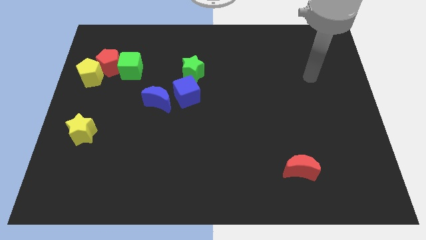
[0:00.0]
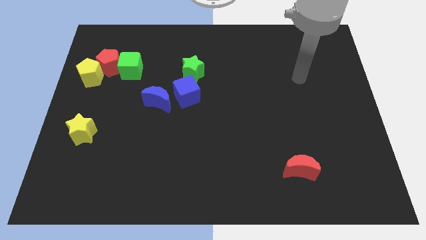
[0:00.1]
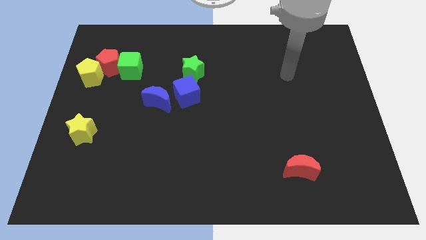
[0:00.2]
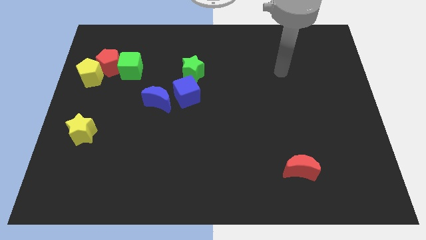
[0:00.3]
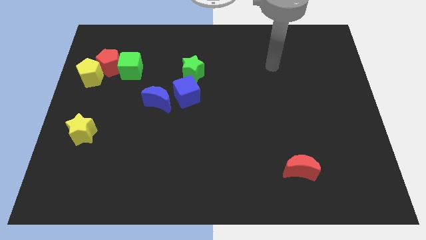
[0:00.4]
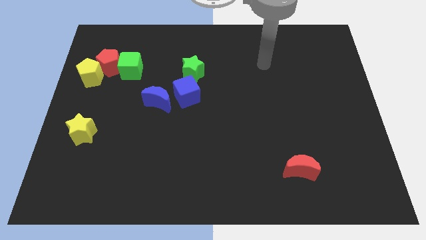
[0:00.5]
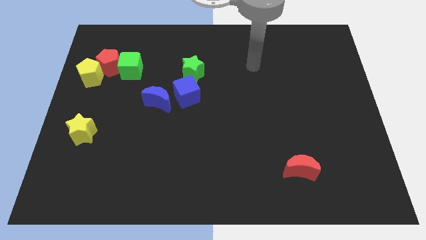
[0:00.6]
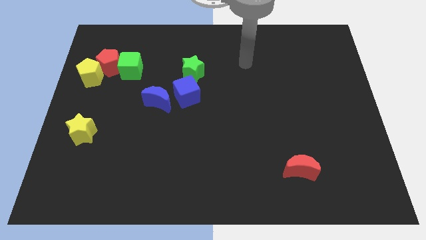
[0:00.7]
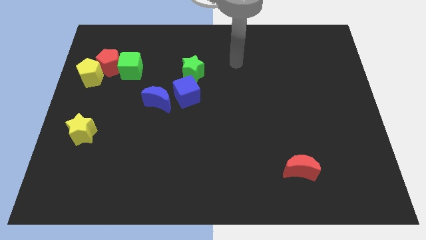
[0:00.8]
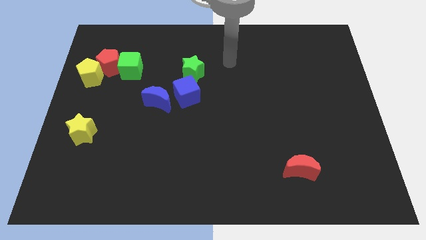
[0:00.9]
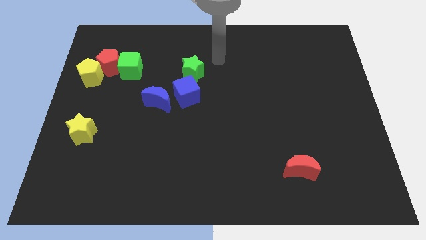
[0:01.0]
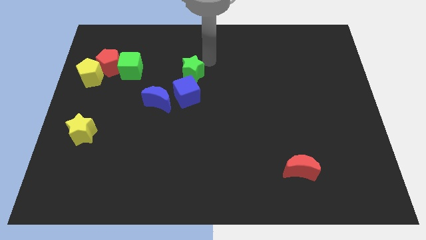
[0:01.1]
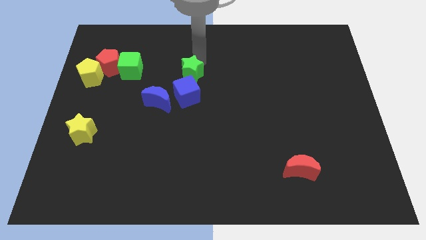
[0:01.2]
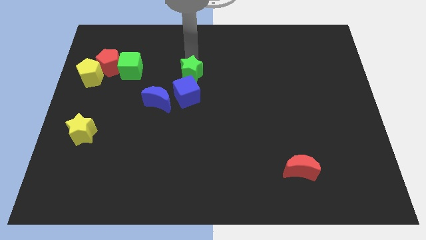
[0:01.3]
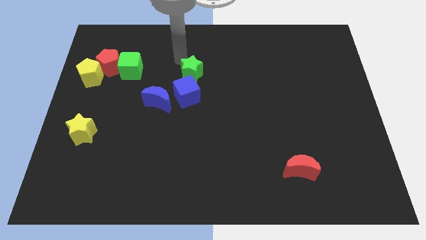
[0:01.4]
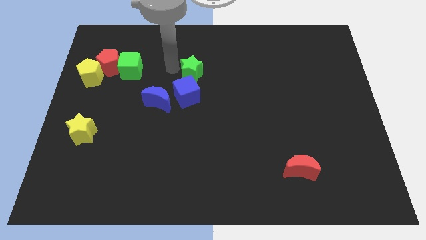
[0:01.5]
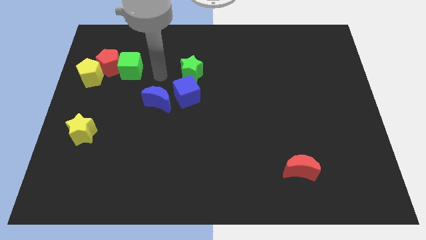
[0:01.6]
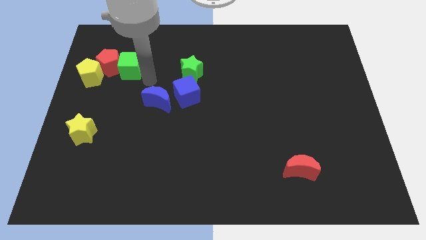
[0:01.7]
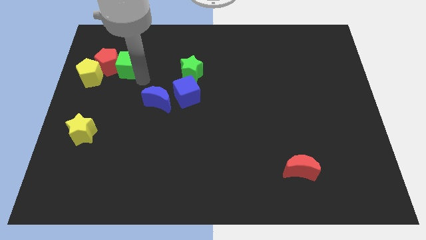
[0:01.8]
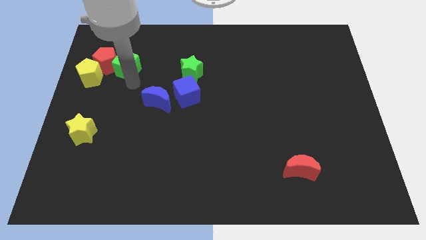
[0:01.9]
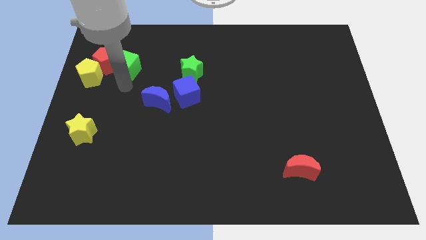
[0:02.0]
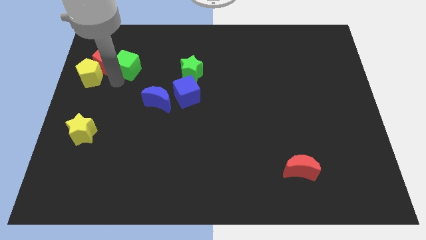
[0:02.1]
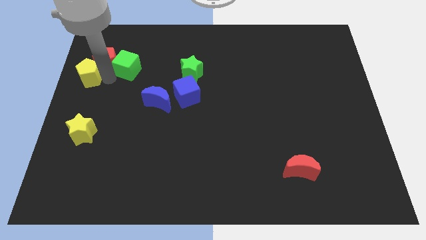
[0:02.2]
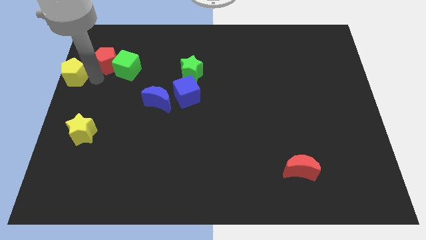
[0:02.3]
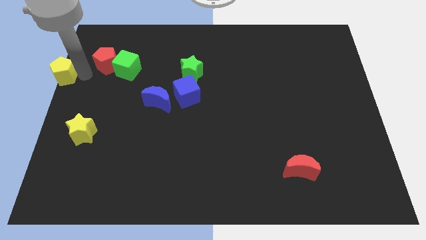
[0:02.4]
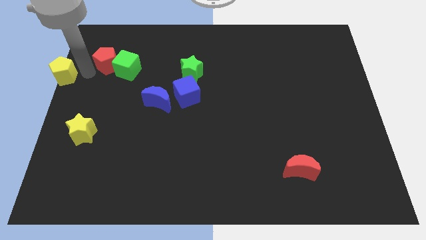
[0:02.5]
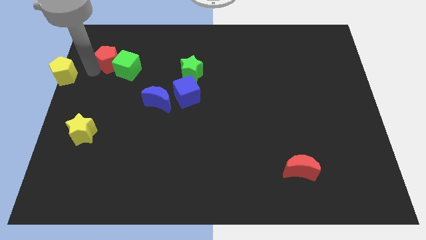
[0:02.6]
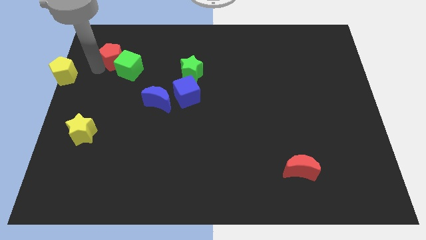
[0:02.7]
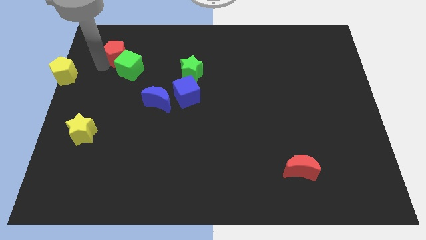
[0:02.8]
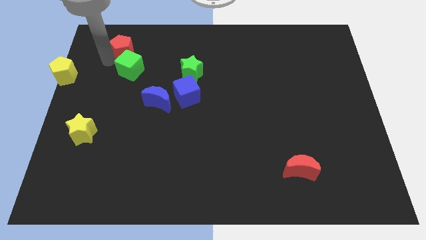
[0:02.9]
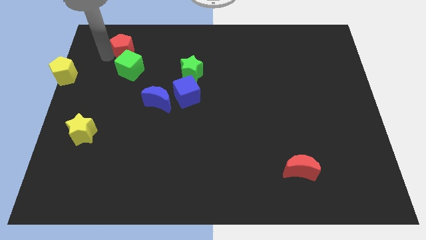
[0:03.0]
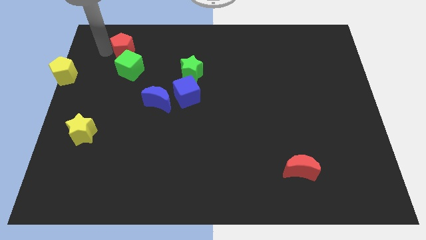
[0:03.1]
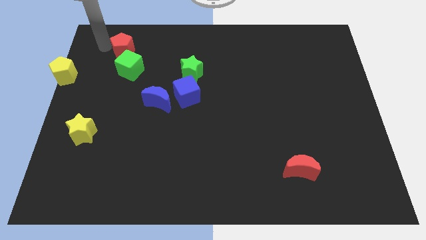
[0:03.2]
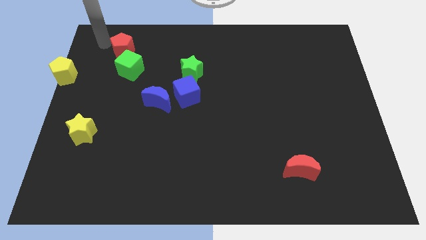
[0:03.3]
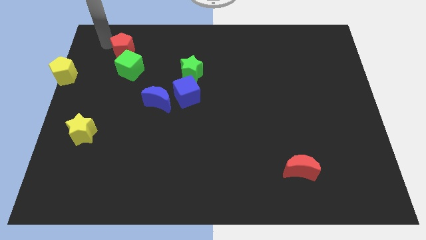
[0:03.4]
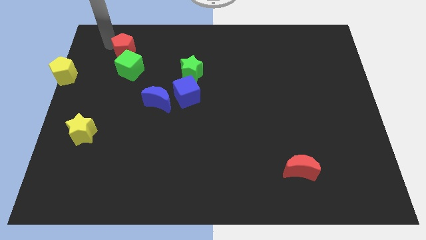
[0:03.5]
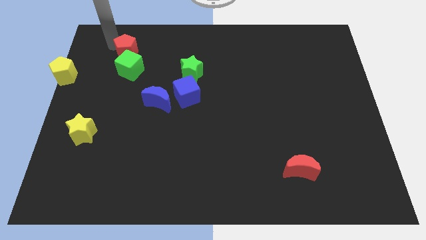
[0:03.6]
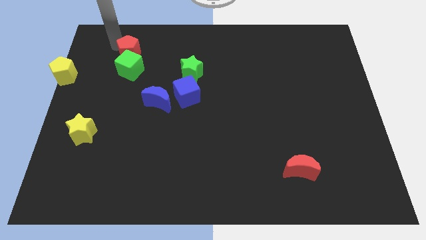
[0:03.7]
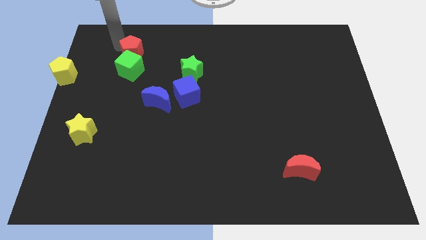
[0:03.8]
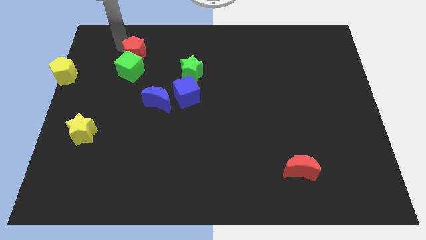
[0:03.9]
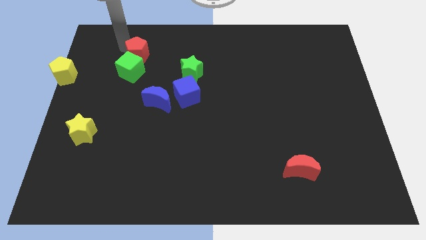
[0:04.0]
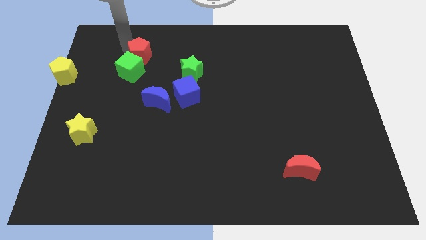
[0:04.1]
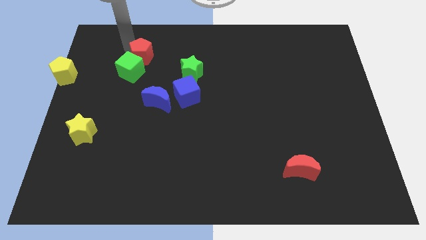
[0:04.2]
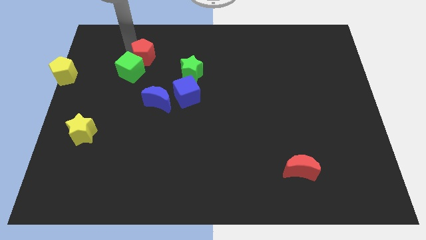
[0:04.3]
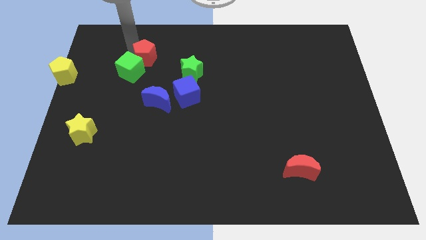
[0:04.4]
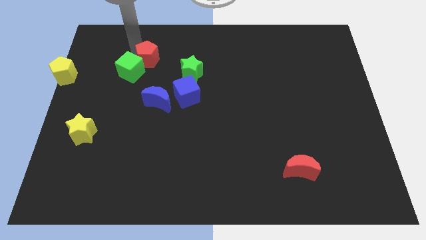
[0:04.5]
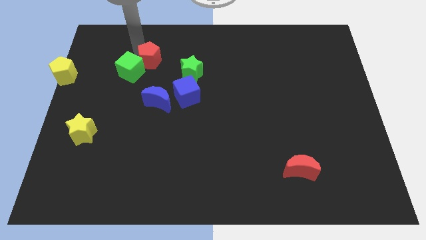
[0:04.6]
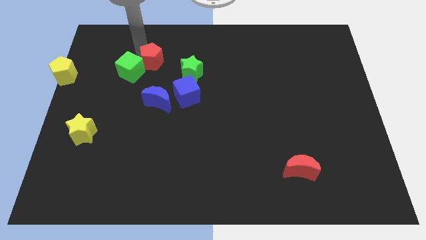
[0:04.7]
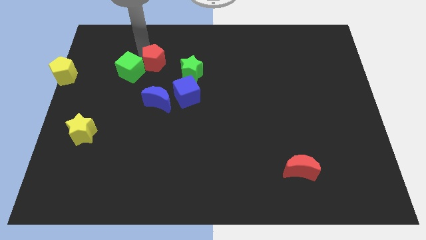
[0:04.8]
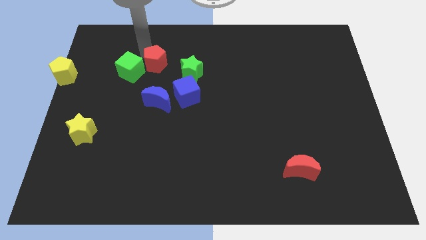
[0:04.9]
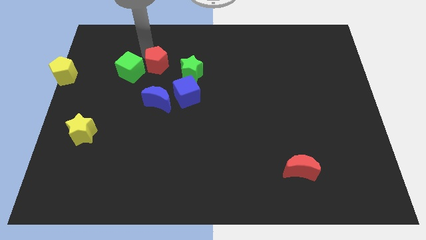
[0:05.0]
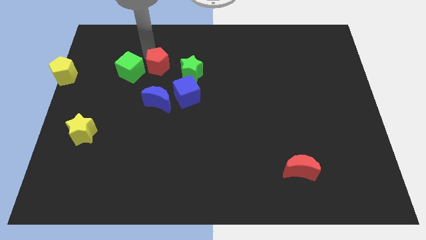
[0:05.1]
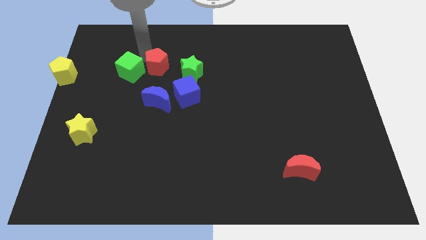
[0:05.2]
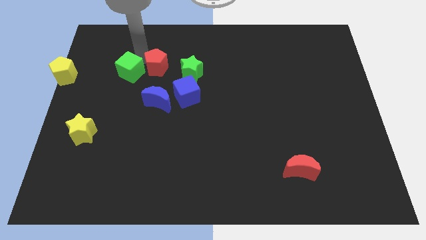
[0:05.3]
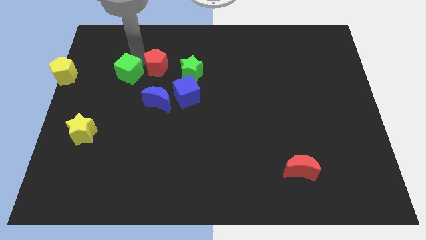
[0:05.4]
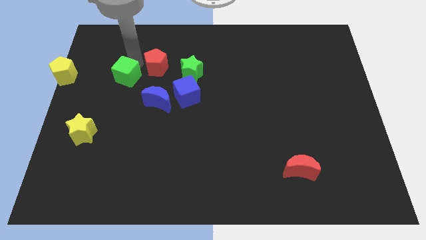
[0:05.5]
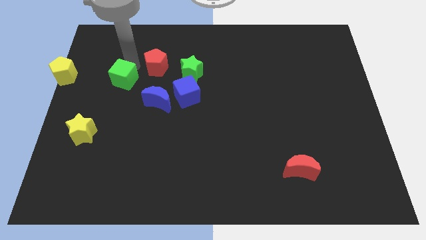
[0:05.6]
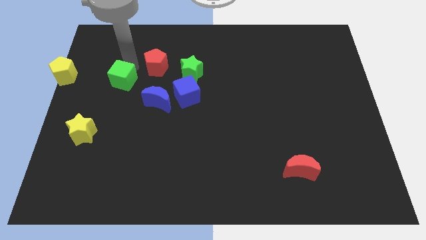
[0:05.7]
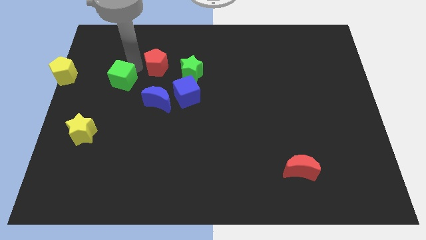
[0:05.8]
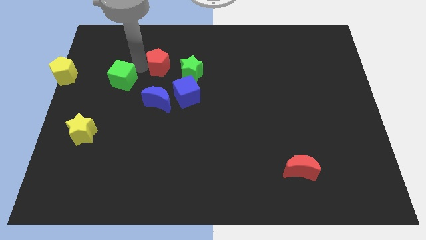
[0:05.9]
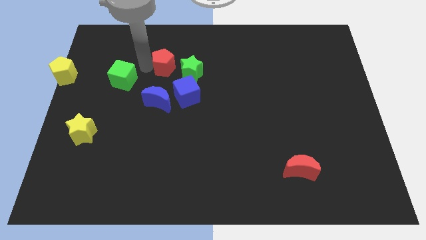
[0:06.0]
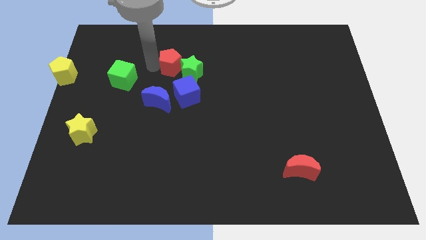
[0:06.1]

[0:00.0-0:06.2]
put the red pentagon to the green star

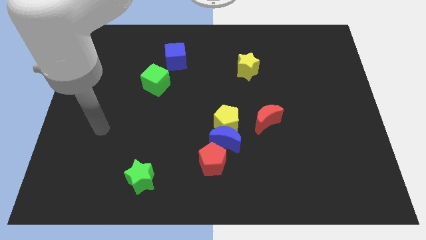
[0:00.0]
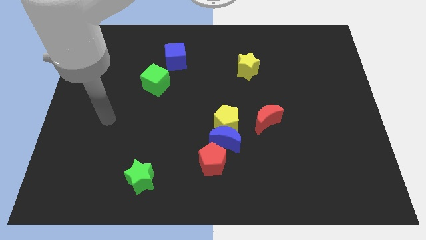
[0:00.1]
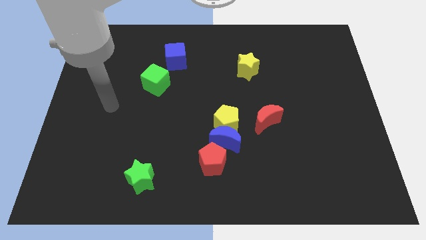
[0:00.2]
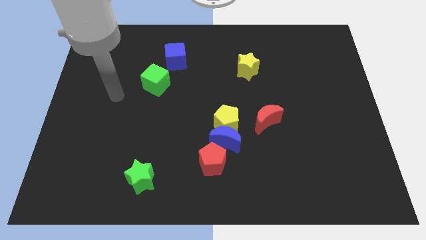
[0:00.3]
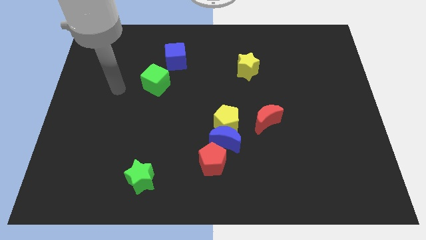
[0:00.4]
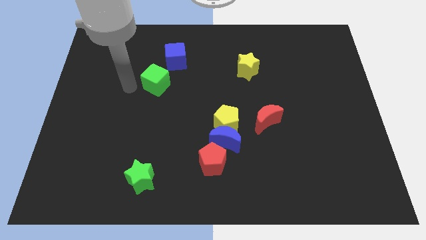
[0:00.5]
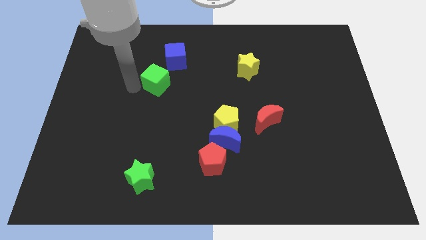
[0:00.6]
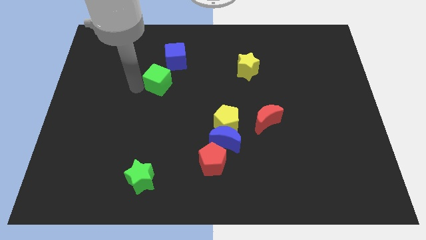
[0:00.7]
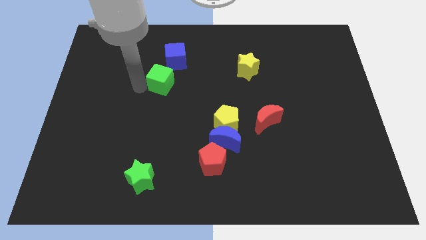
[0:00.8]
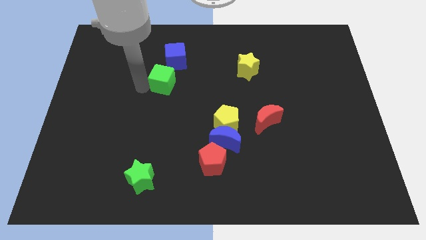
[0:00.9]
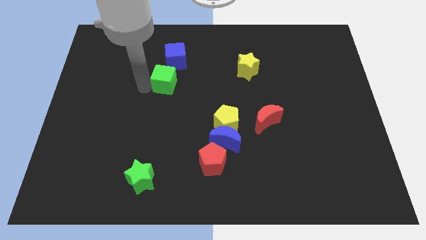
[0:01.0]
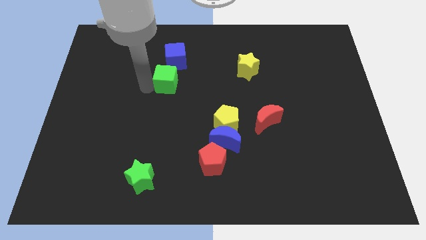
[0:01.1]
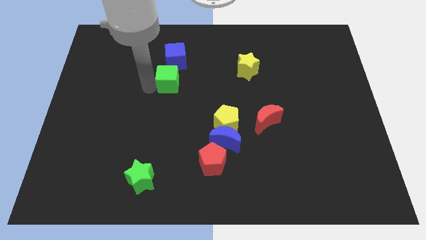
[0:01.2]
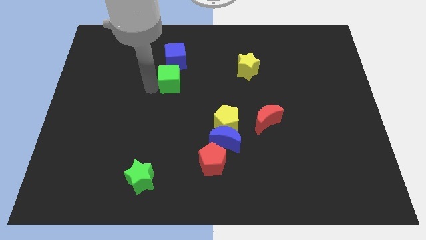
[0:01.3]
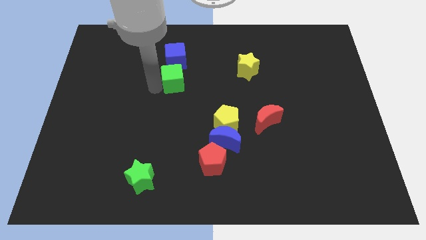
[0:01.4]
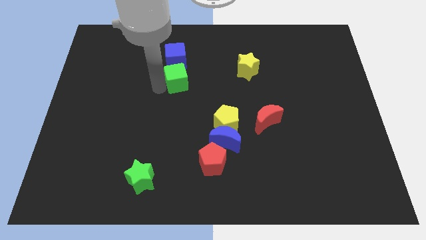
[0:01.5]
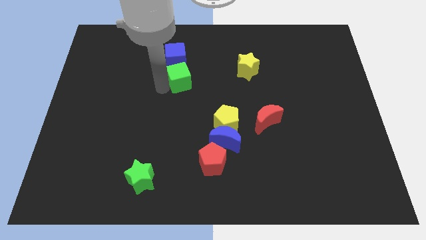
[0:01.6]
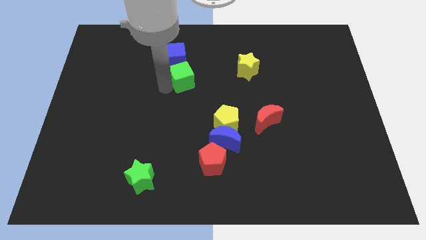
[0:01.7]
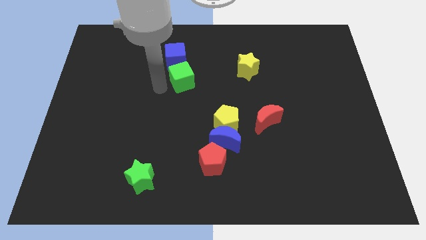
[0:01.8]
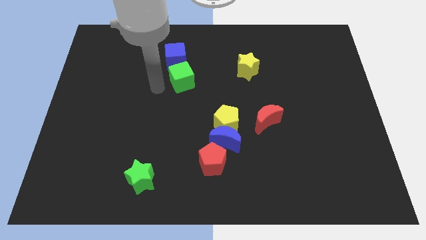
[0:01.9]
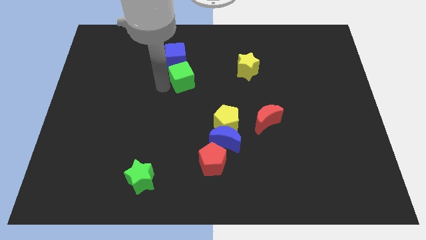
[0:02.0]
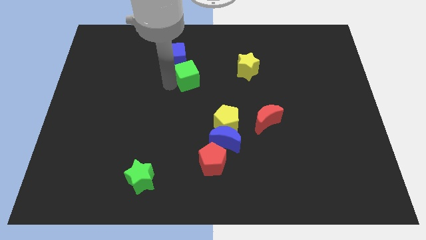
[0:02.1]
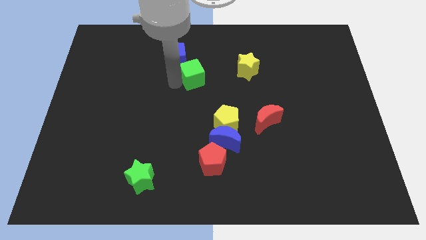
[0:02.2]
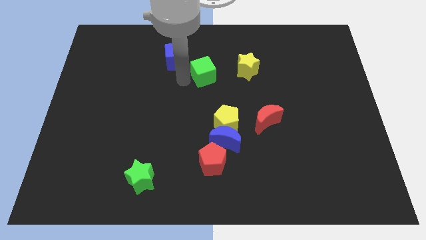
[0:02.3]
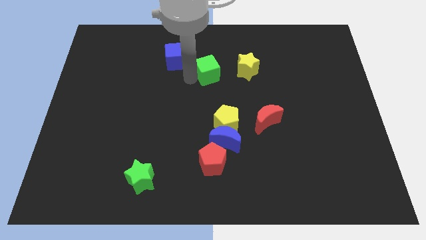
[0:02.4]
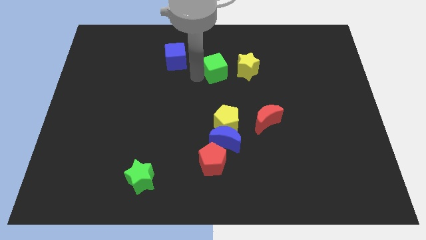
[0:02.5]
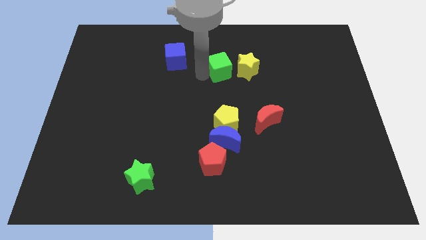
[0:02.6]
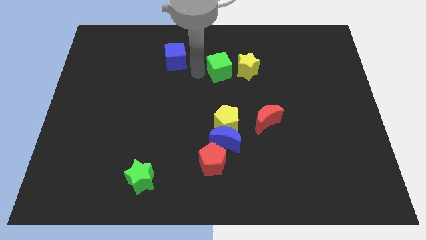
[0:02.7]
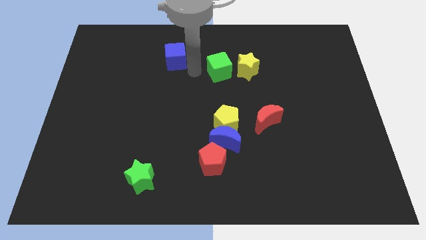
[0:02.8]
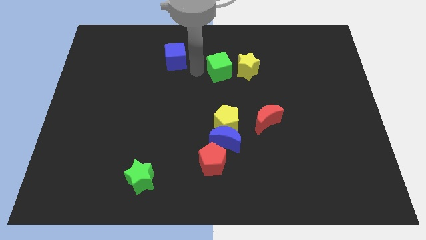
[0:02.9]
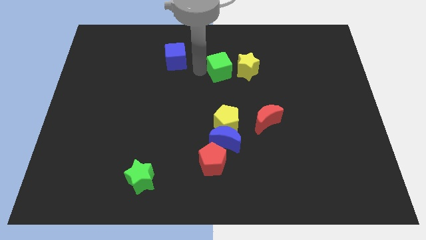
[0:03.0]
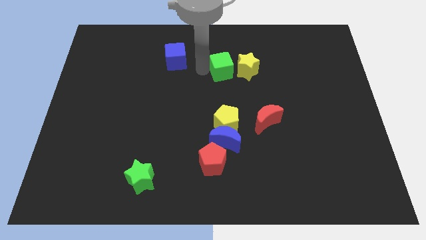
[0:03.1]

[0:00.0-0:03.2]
slide the green cube close to the yellow star
